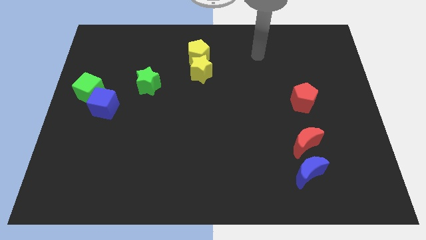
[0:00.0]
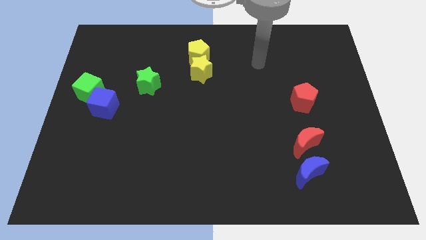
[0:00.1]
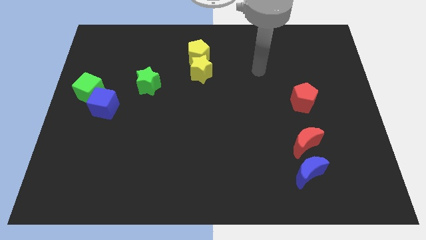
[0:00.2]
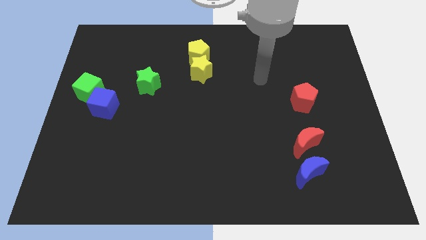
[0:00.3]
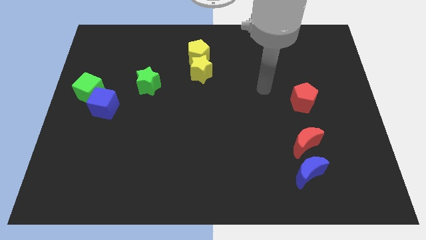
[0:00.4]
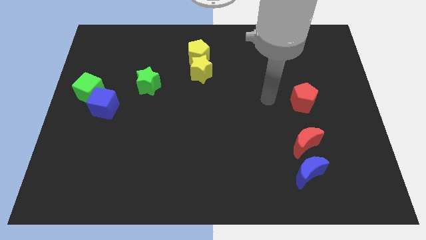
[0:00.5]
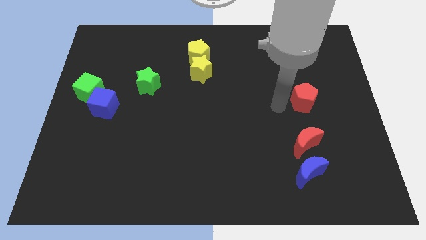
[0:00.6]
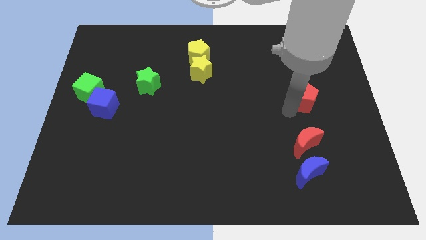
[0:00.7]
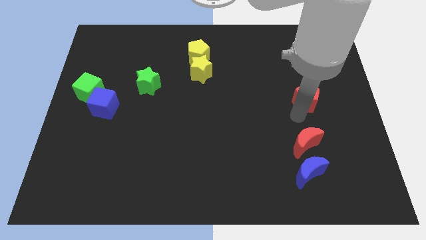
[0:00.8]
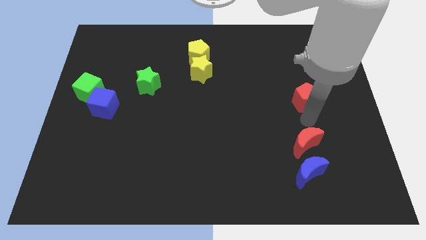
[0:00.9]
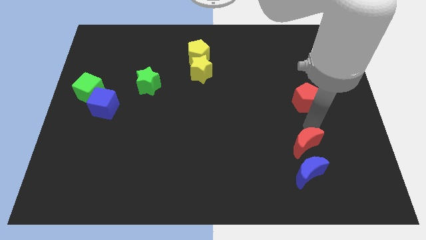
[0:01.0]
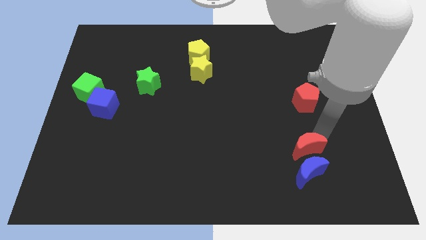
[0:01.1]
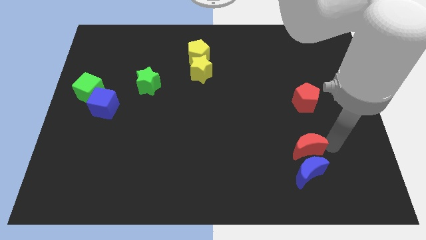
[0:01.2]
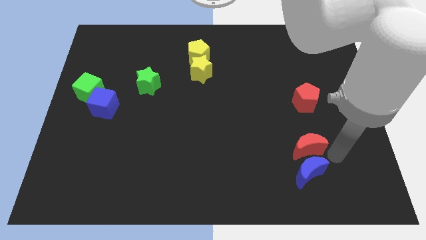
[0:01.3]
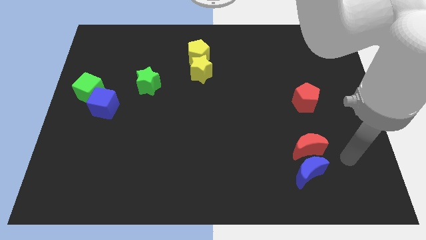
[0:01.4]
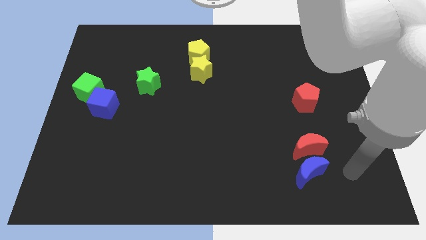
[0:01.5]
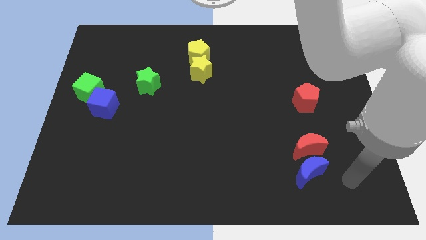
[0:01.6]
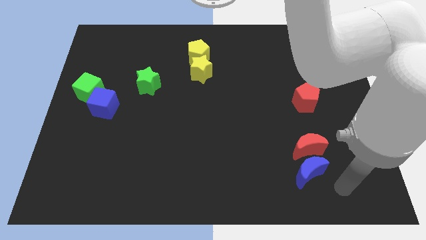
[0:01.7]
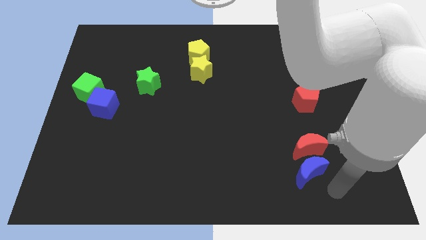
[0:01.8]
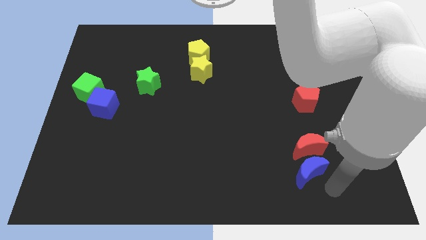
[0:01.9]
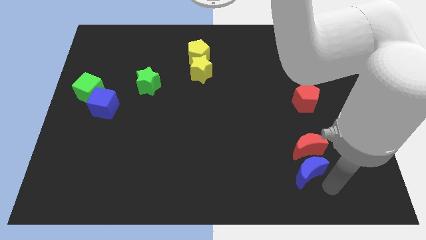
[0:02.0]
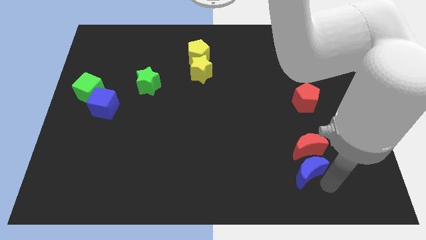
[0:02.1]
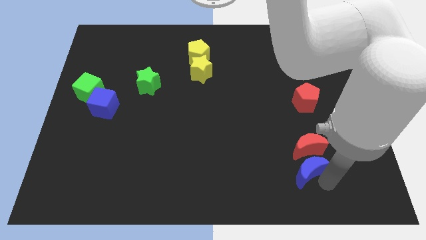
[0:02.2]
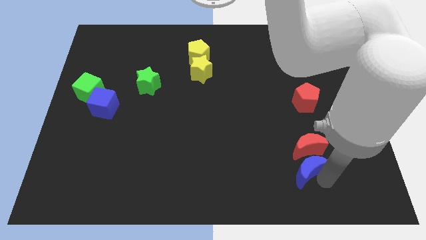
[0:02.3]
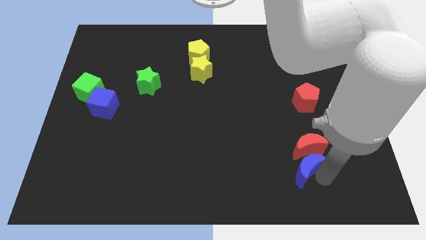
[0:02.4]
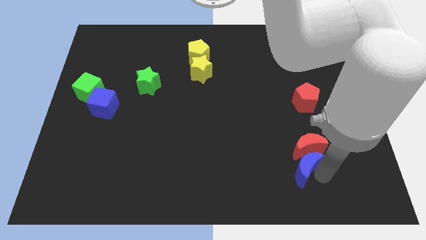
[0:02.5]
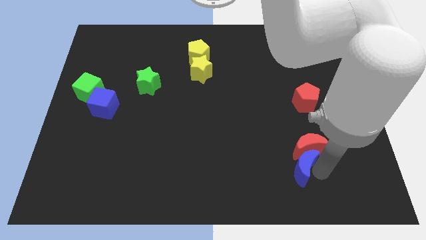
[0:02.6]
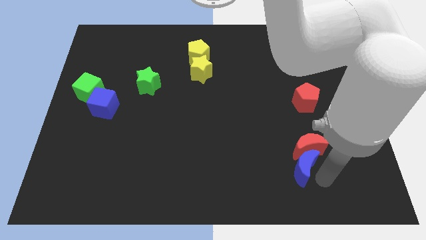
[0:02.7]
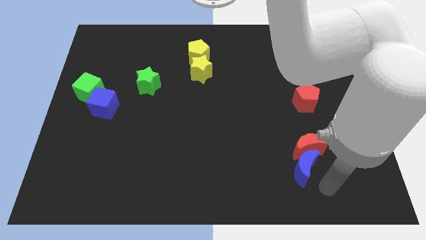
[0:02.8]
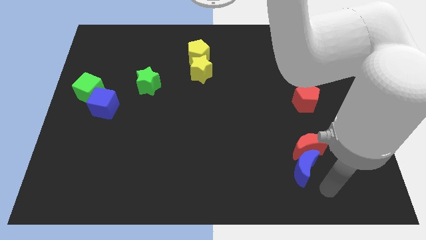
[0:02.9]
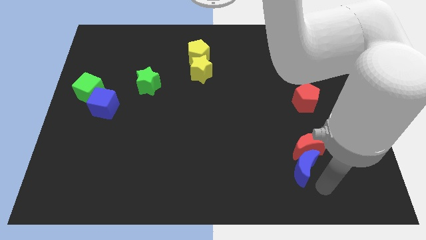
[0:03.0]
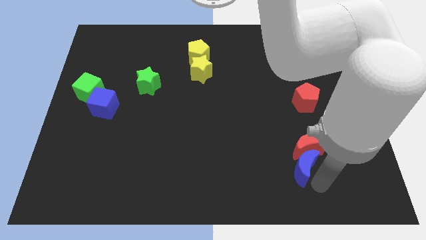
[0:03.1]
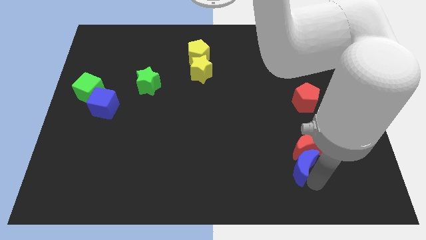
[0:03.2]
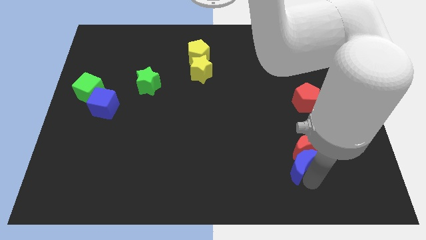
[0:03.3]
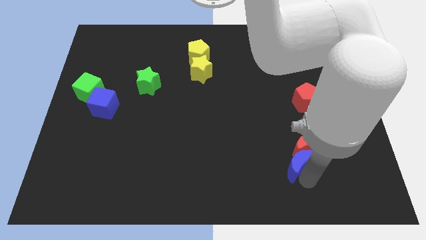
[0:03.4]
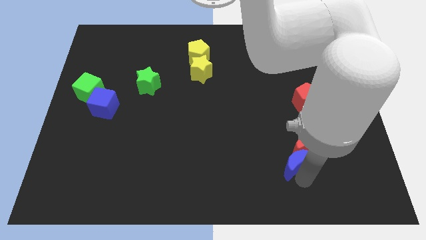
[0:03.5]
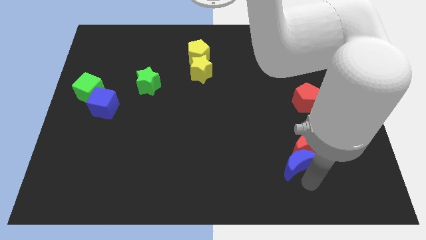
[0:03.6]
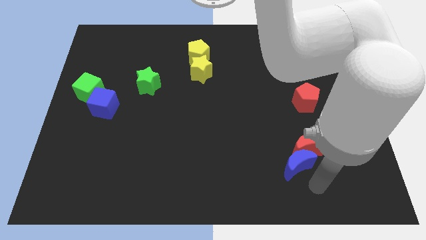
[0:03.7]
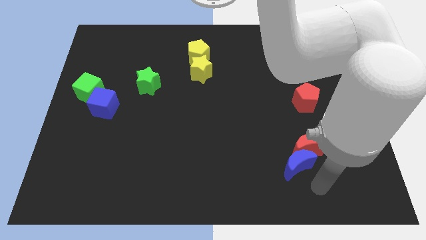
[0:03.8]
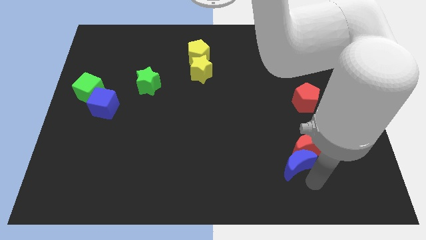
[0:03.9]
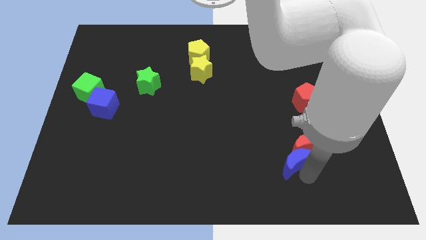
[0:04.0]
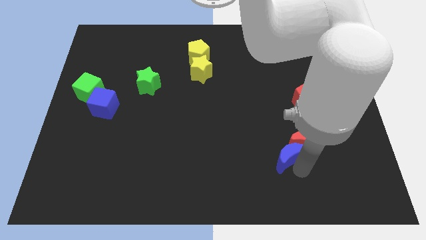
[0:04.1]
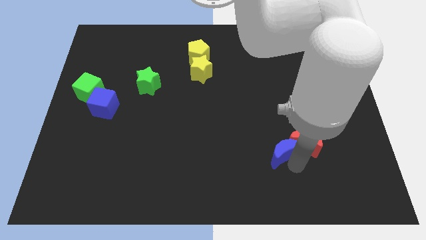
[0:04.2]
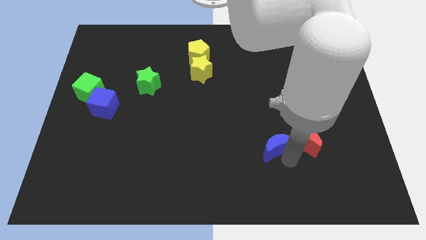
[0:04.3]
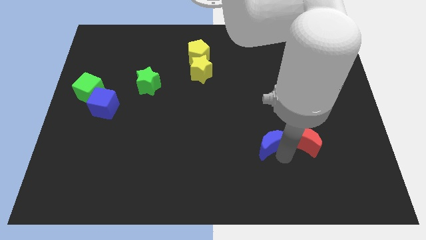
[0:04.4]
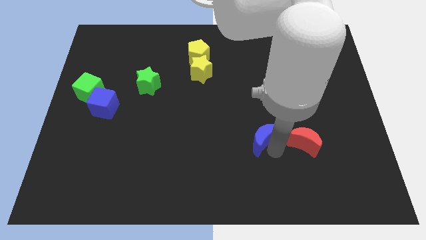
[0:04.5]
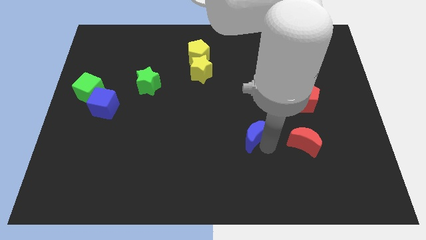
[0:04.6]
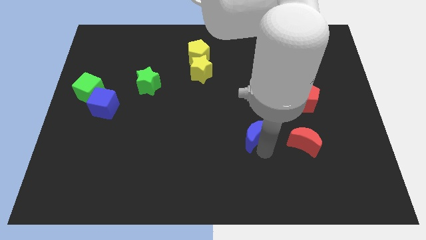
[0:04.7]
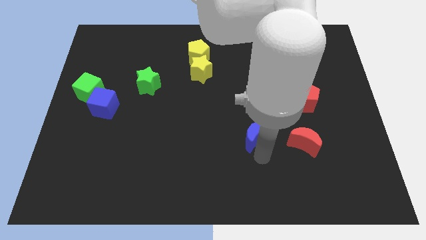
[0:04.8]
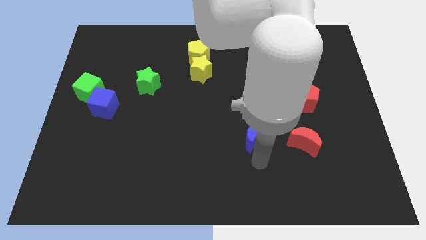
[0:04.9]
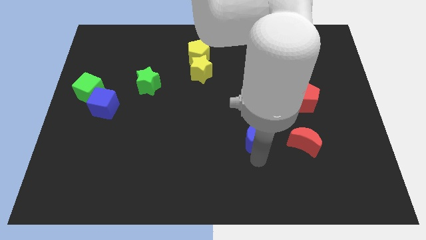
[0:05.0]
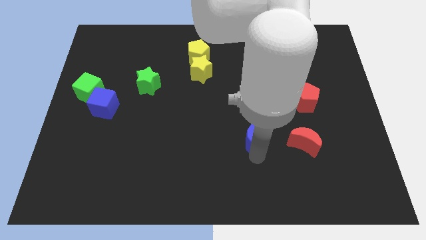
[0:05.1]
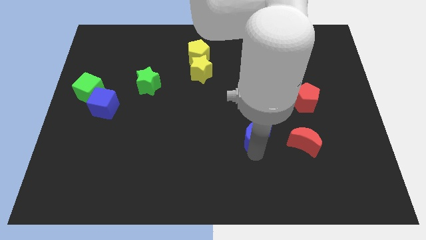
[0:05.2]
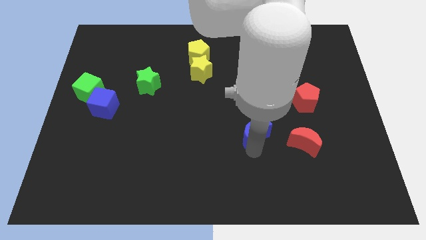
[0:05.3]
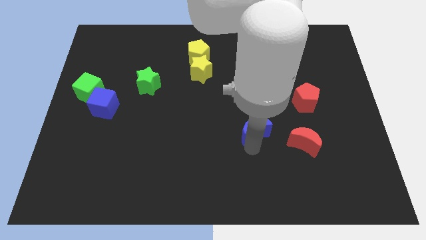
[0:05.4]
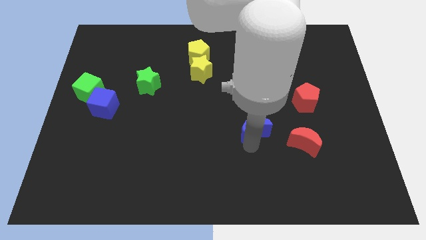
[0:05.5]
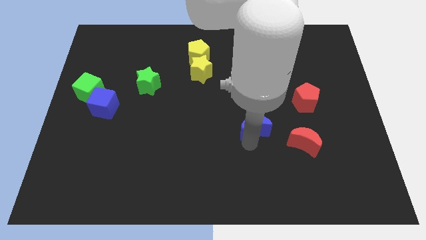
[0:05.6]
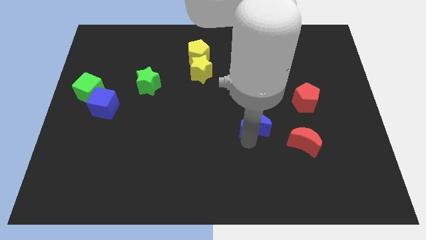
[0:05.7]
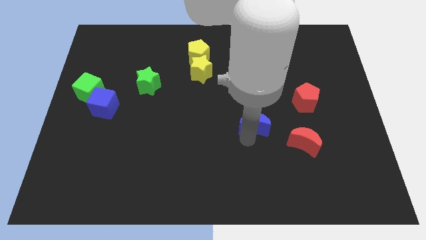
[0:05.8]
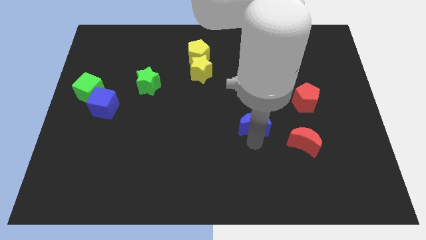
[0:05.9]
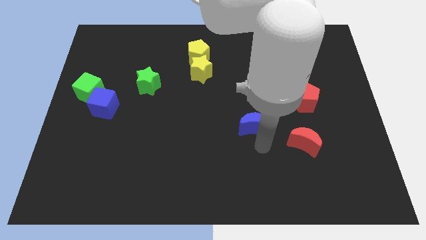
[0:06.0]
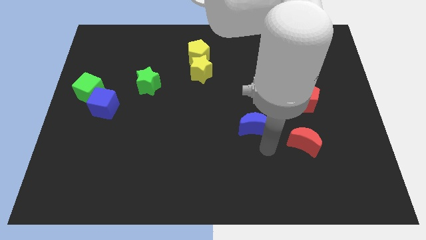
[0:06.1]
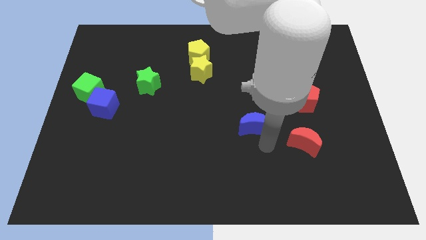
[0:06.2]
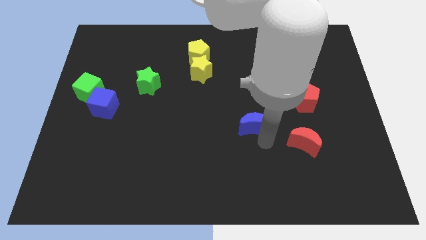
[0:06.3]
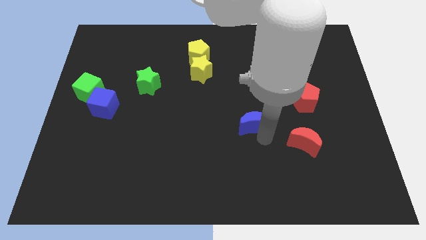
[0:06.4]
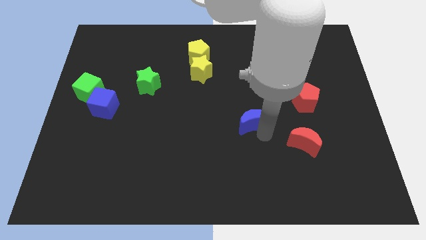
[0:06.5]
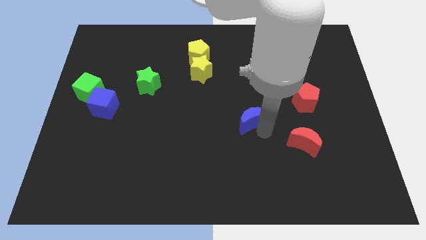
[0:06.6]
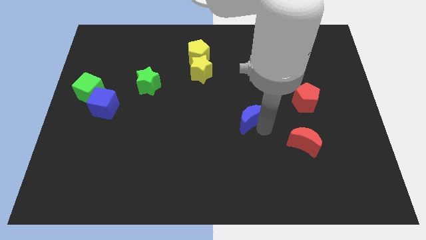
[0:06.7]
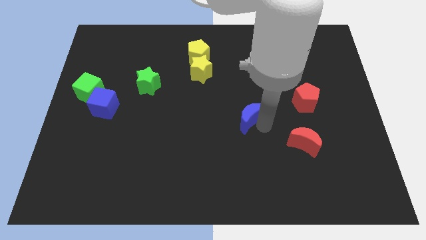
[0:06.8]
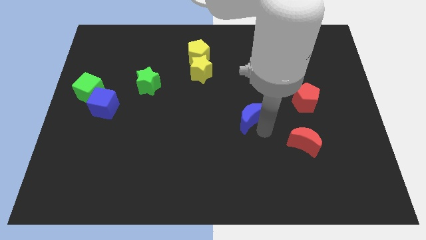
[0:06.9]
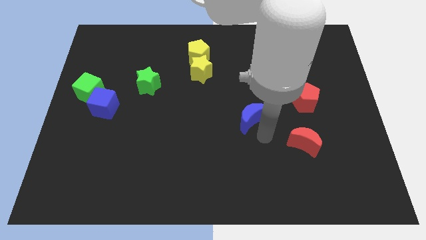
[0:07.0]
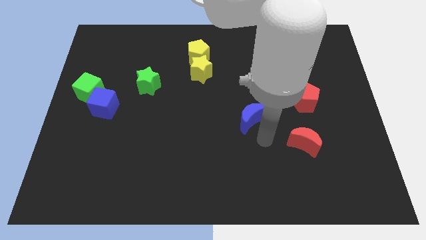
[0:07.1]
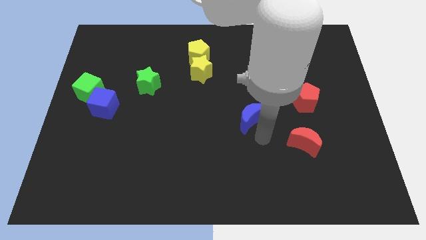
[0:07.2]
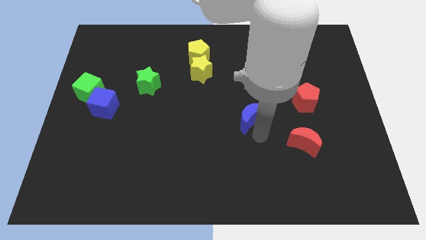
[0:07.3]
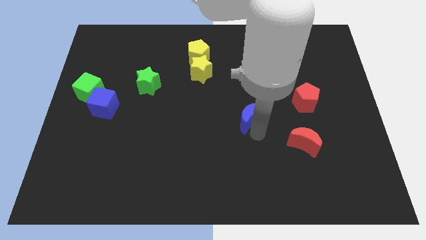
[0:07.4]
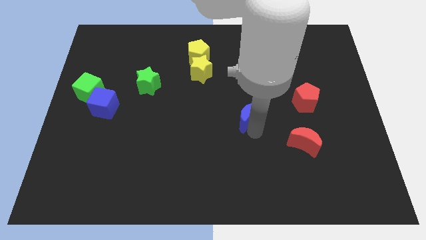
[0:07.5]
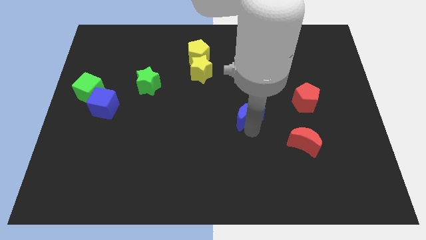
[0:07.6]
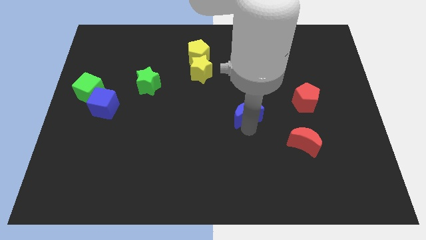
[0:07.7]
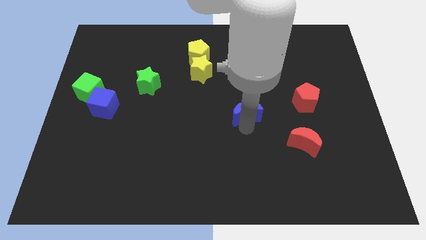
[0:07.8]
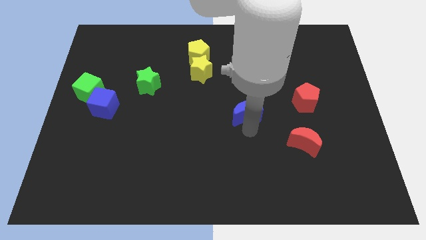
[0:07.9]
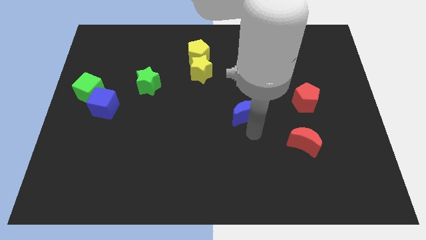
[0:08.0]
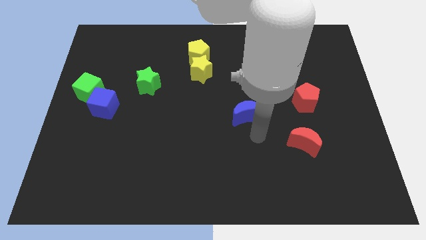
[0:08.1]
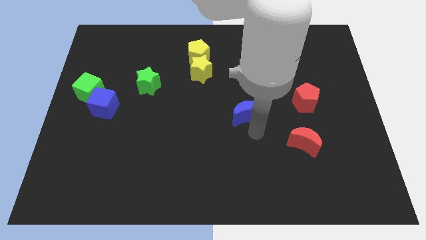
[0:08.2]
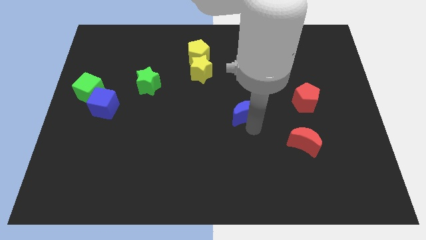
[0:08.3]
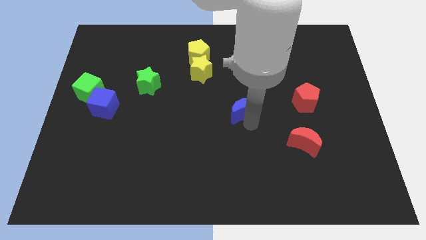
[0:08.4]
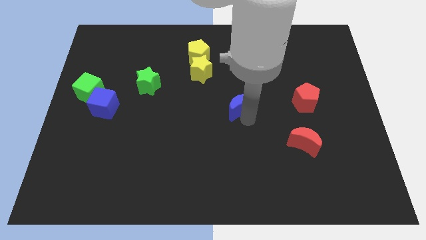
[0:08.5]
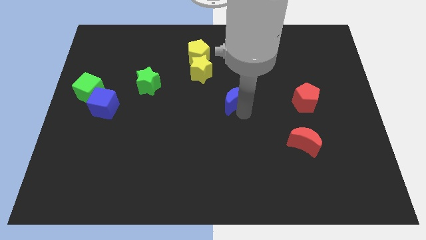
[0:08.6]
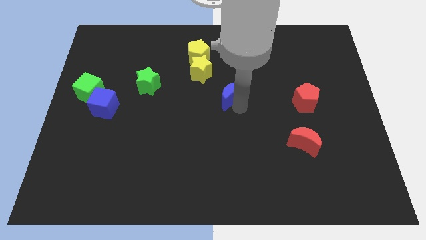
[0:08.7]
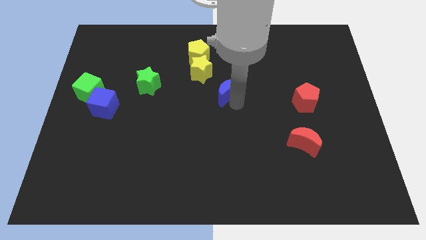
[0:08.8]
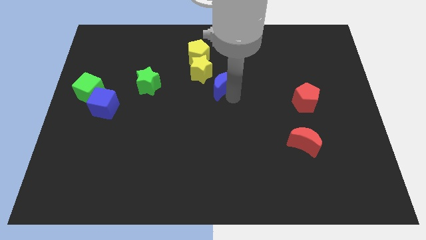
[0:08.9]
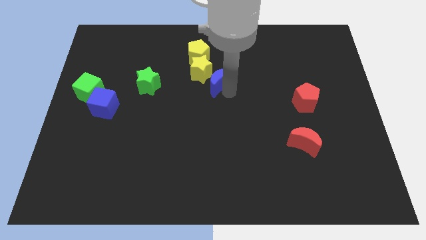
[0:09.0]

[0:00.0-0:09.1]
slide the blue moon towards the yellow star
